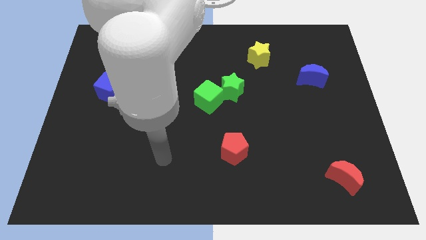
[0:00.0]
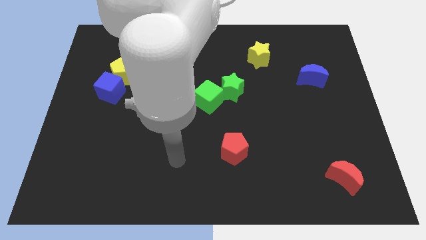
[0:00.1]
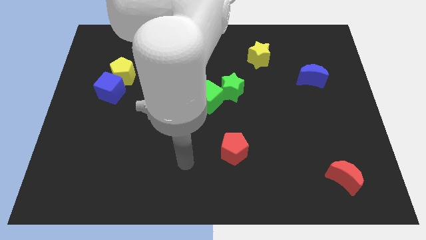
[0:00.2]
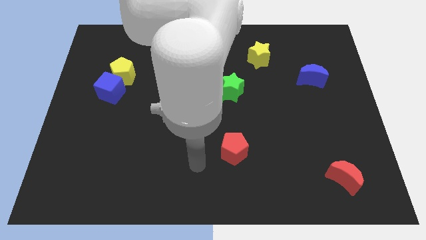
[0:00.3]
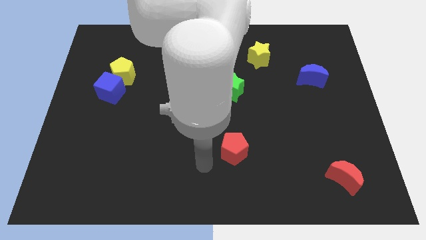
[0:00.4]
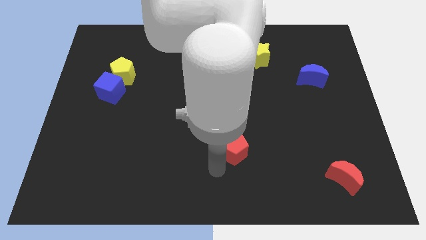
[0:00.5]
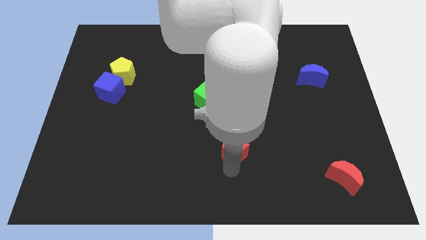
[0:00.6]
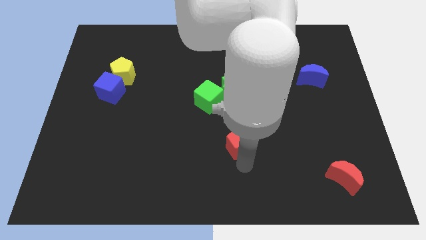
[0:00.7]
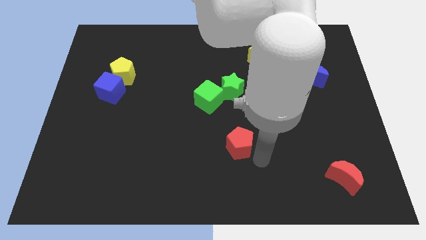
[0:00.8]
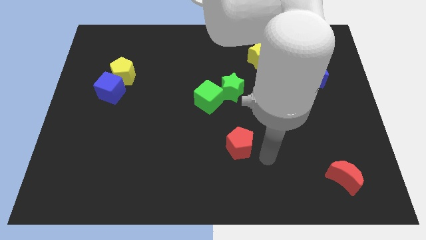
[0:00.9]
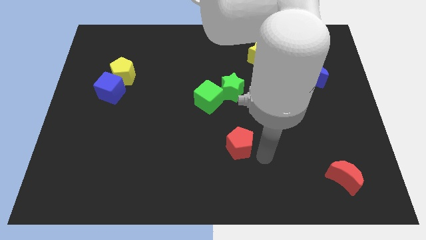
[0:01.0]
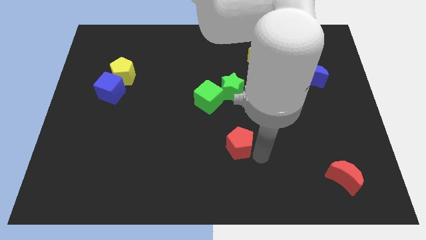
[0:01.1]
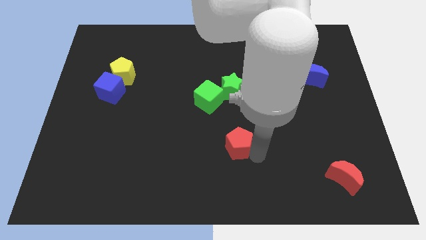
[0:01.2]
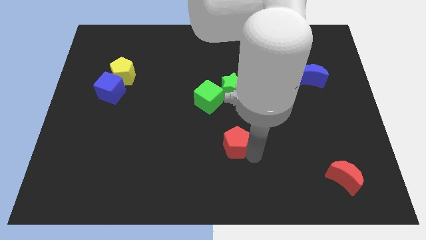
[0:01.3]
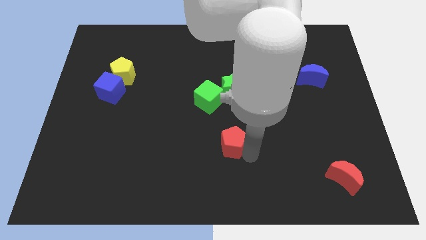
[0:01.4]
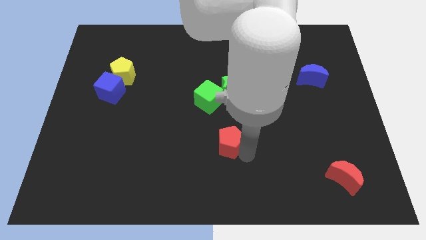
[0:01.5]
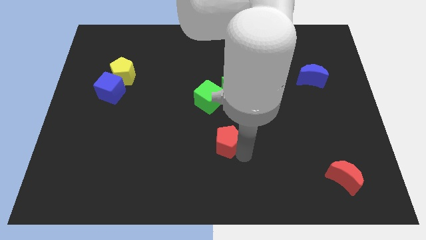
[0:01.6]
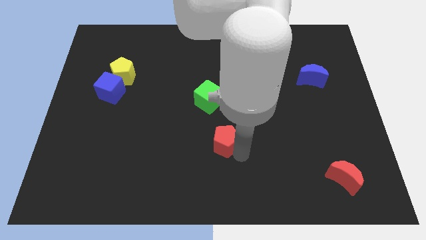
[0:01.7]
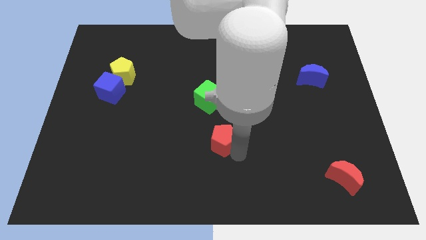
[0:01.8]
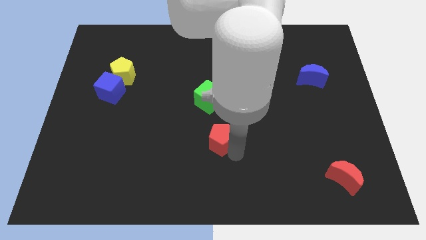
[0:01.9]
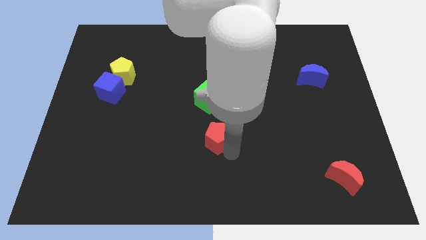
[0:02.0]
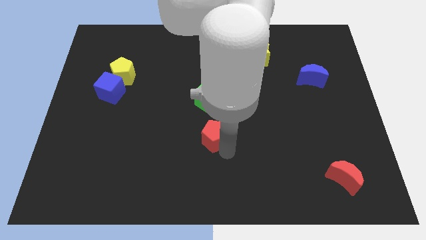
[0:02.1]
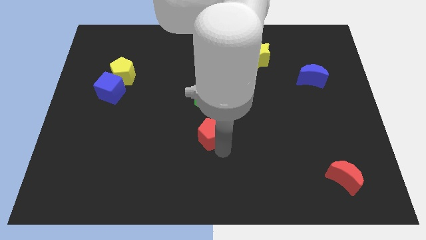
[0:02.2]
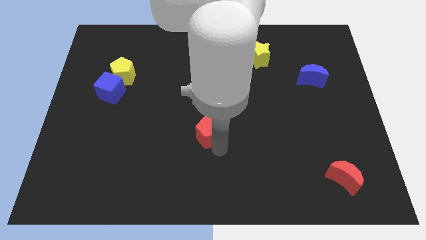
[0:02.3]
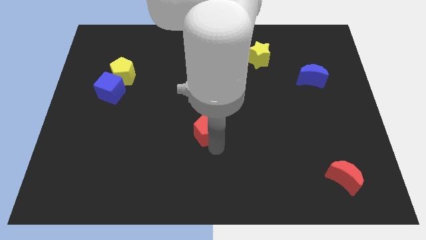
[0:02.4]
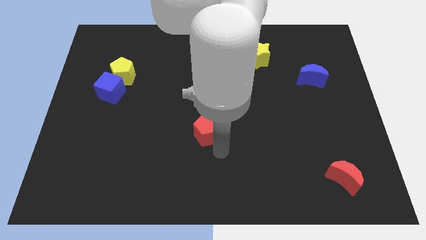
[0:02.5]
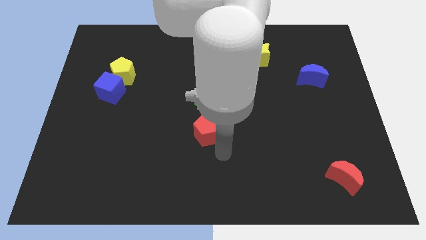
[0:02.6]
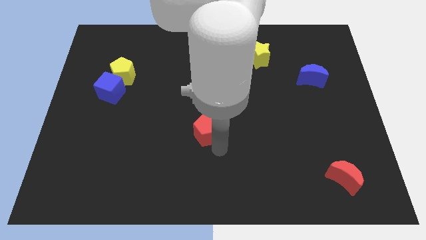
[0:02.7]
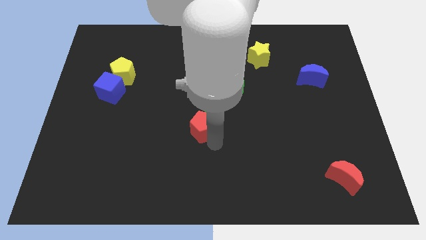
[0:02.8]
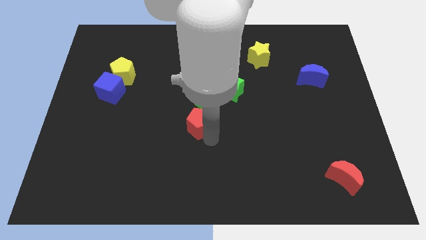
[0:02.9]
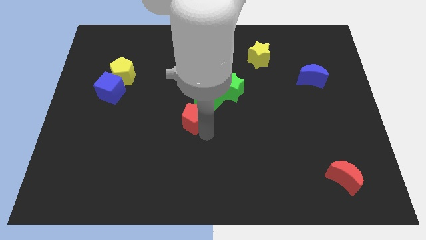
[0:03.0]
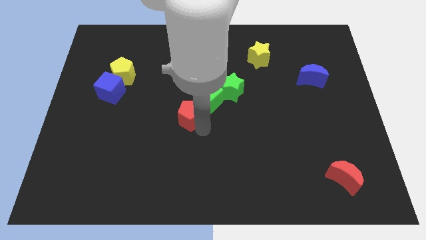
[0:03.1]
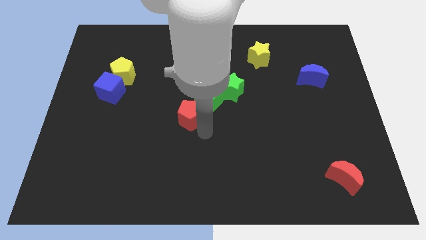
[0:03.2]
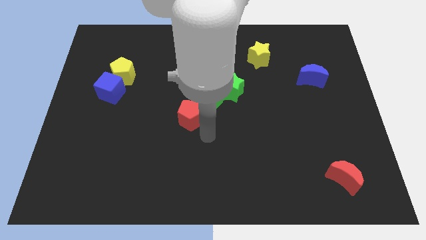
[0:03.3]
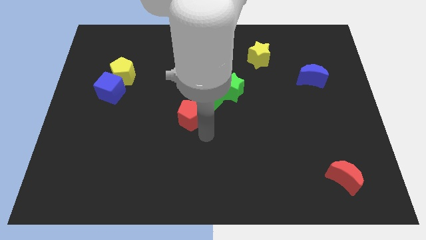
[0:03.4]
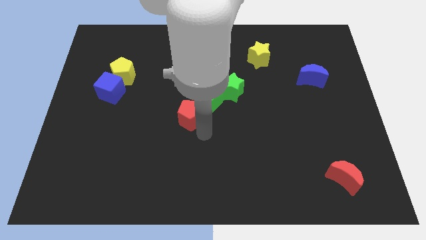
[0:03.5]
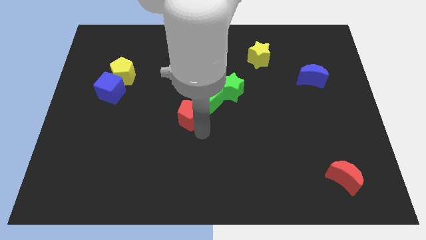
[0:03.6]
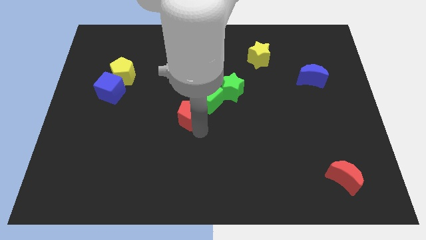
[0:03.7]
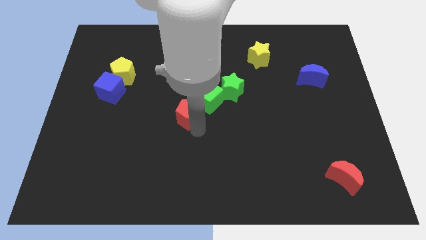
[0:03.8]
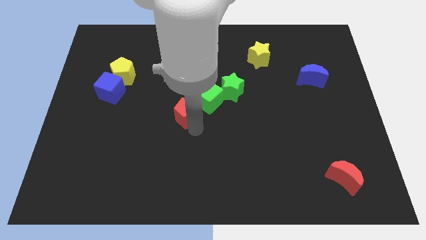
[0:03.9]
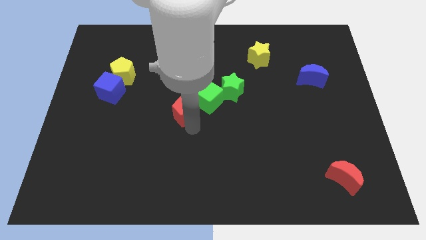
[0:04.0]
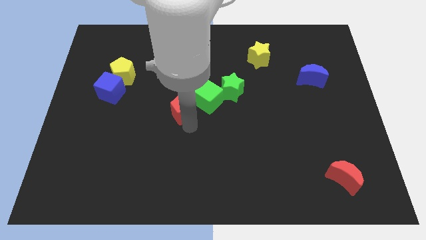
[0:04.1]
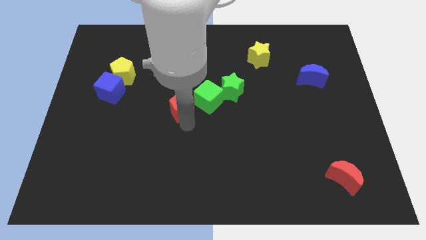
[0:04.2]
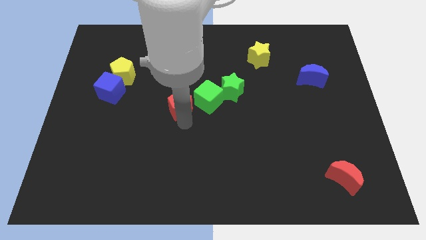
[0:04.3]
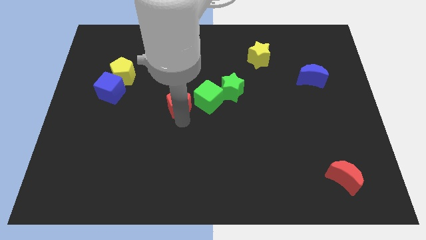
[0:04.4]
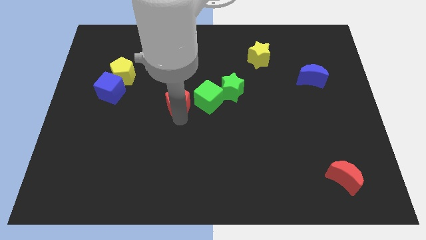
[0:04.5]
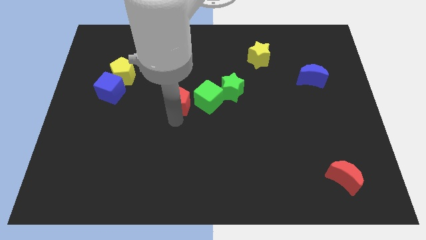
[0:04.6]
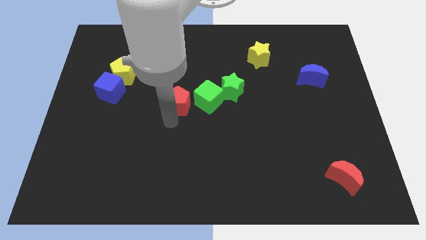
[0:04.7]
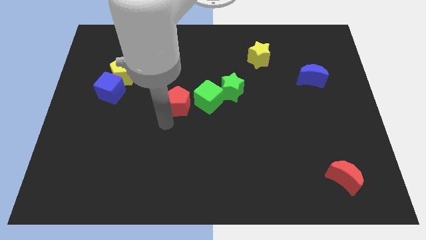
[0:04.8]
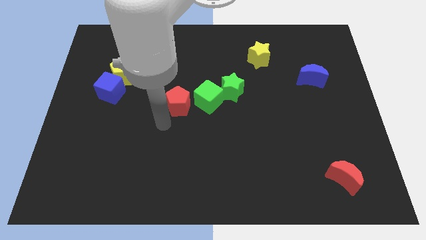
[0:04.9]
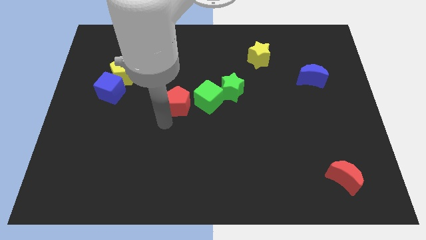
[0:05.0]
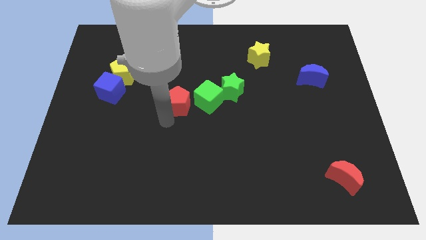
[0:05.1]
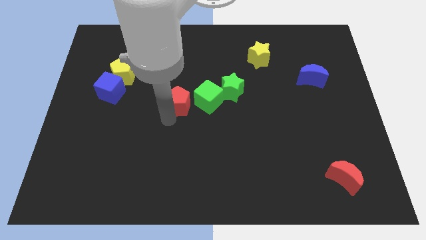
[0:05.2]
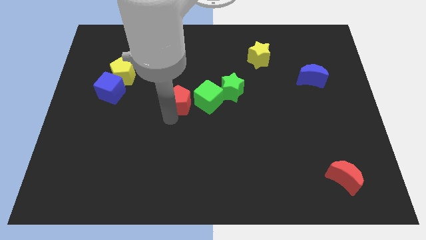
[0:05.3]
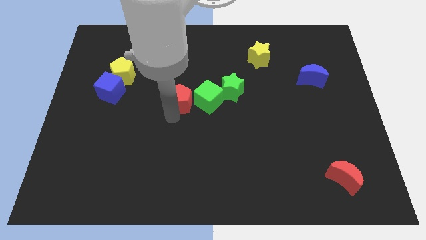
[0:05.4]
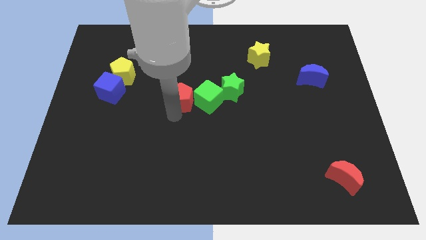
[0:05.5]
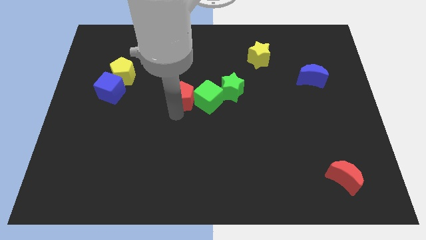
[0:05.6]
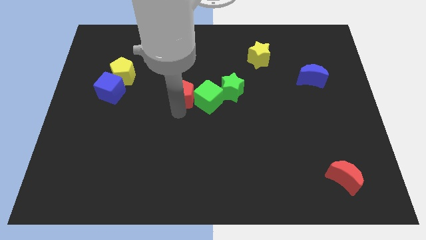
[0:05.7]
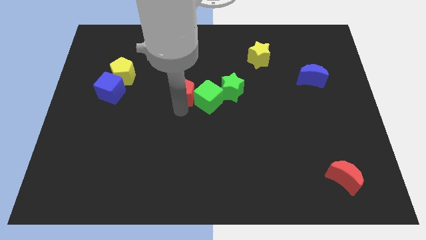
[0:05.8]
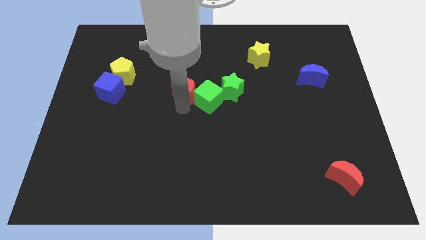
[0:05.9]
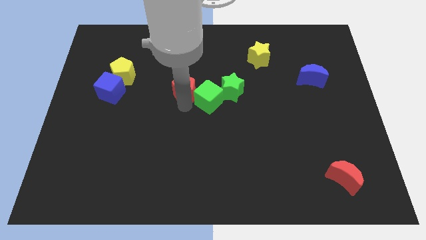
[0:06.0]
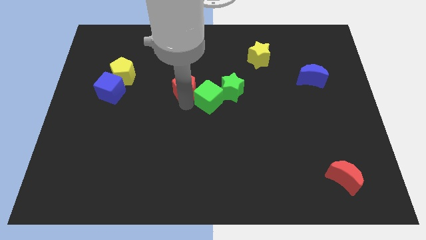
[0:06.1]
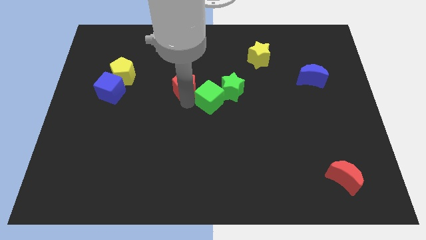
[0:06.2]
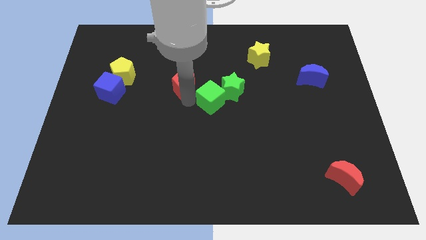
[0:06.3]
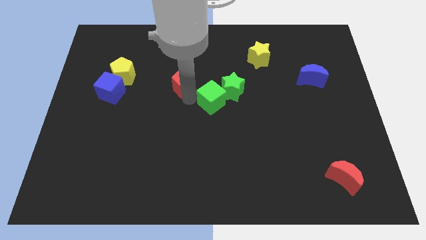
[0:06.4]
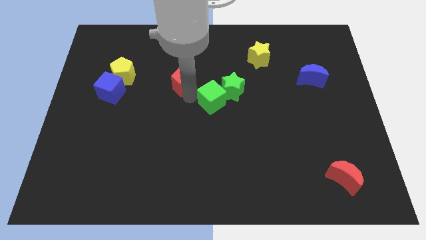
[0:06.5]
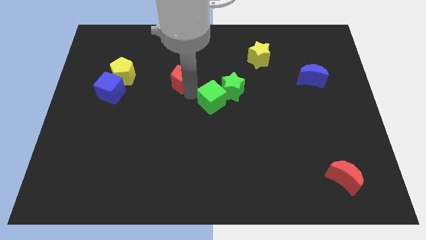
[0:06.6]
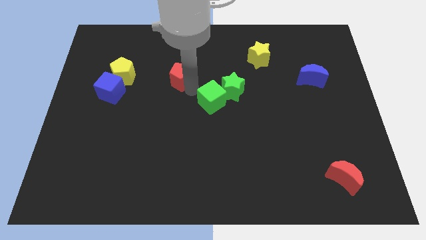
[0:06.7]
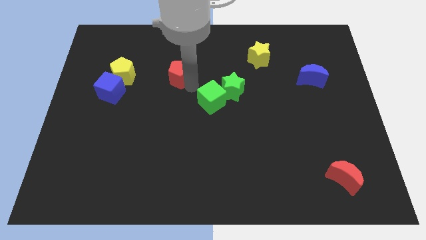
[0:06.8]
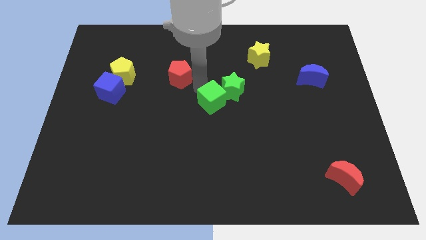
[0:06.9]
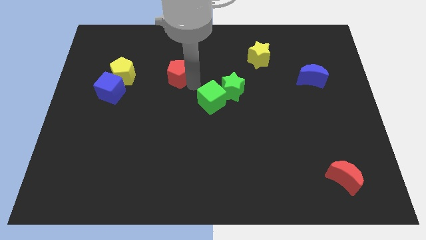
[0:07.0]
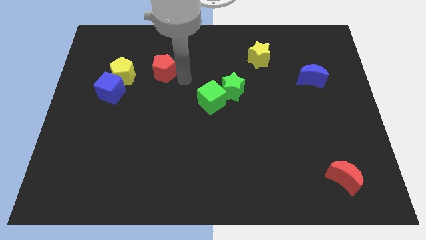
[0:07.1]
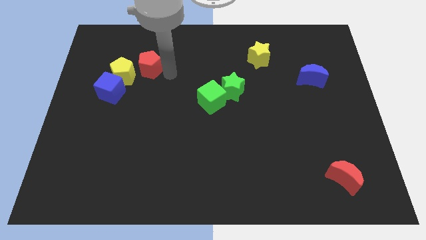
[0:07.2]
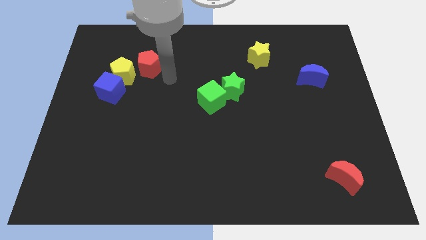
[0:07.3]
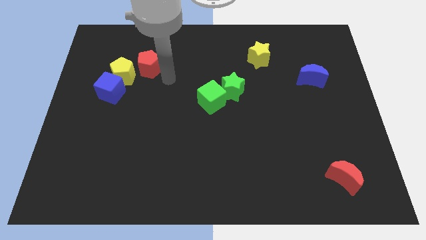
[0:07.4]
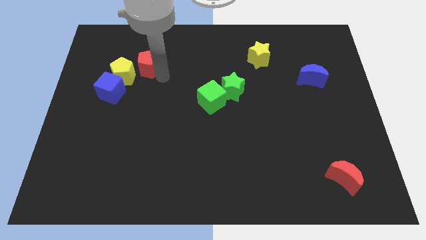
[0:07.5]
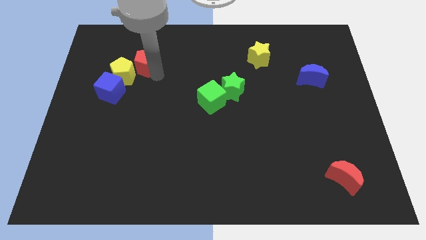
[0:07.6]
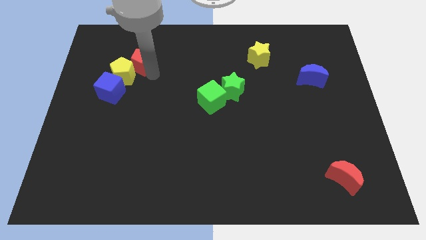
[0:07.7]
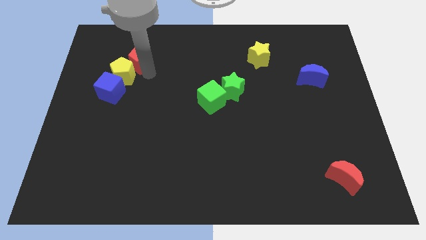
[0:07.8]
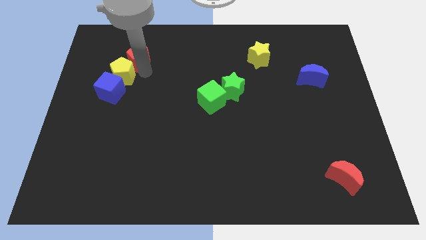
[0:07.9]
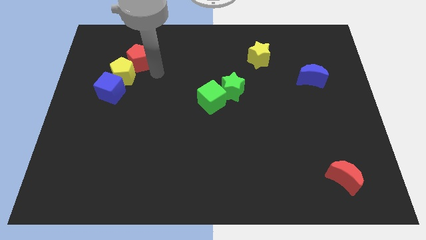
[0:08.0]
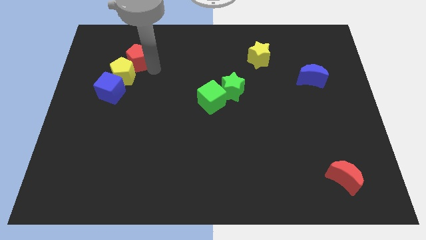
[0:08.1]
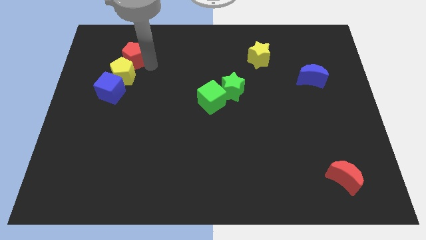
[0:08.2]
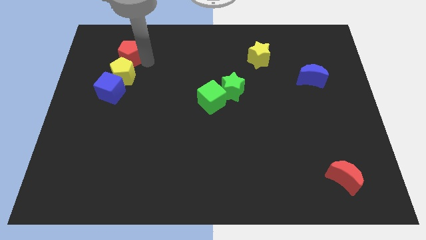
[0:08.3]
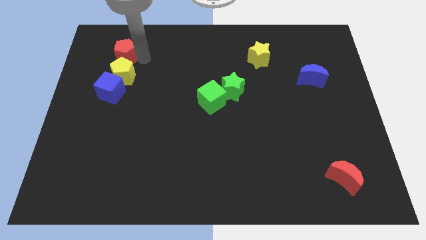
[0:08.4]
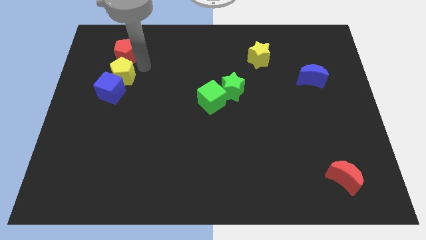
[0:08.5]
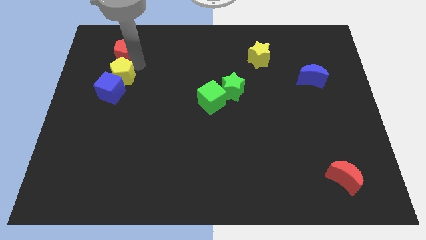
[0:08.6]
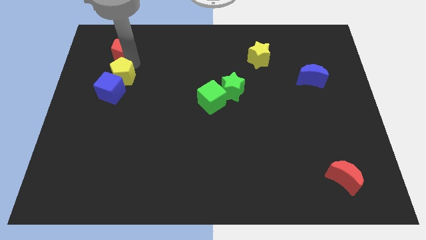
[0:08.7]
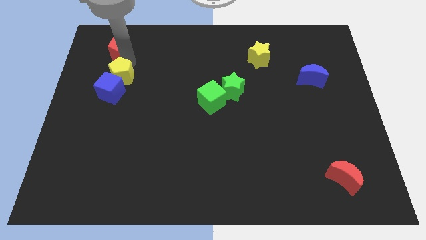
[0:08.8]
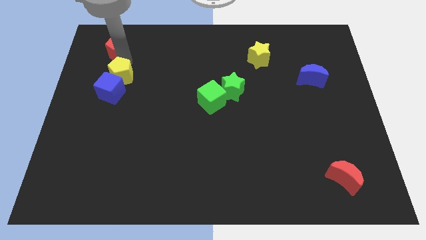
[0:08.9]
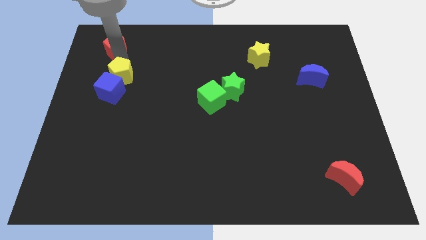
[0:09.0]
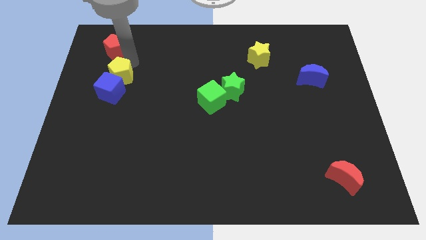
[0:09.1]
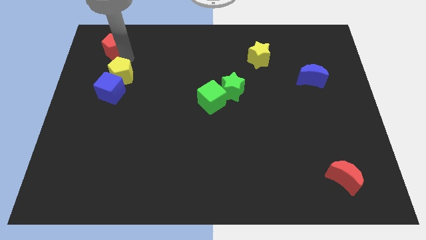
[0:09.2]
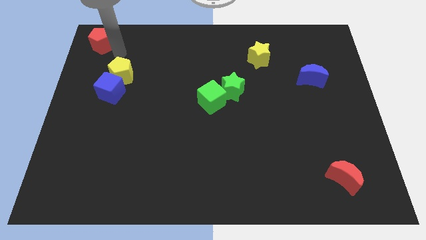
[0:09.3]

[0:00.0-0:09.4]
move the red pentagon to the top left corner
